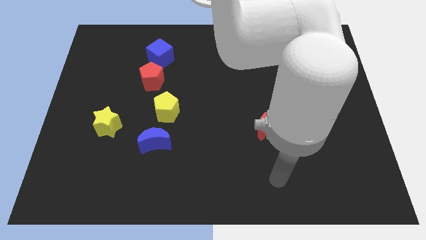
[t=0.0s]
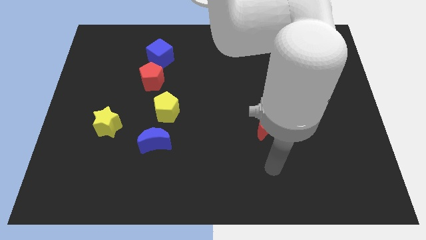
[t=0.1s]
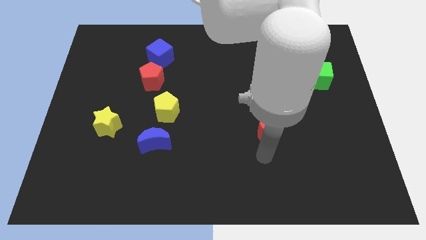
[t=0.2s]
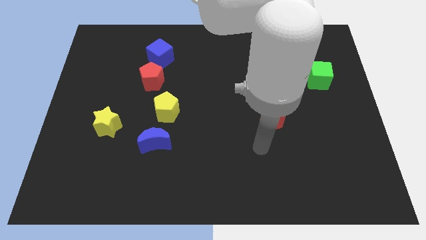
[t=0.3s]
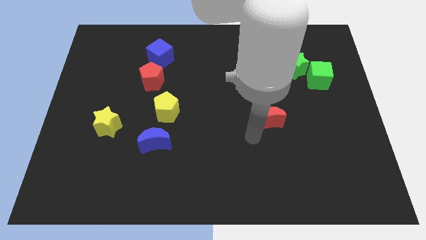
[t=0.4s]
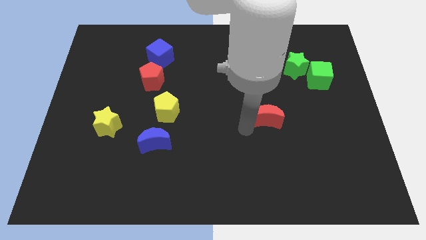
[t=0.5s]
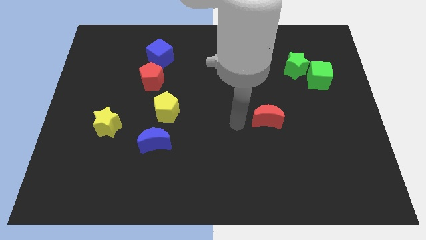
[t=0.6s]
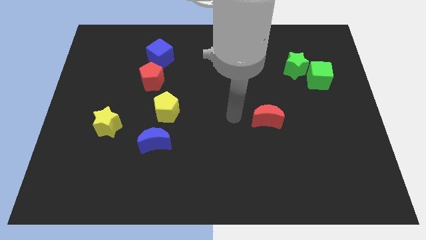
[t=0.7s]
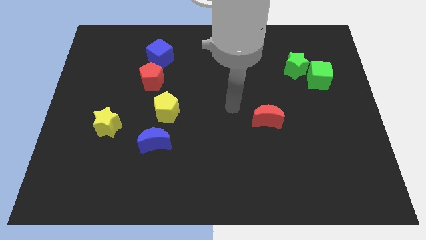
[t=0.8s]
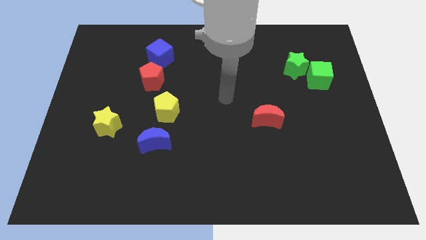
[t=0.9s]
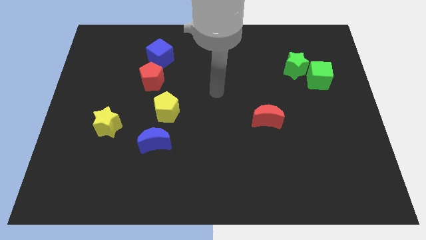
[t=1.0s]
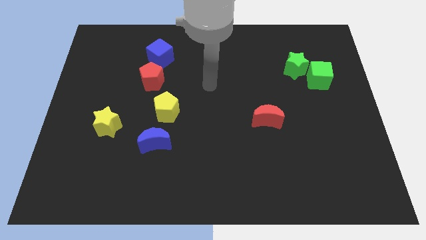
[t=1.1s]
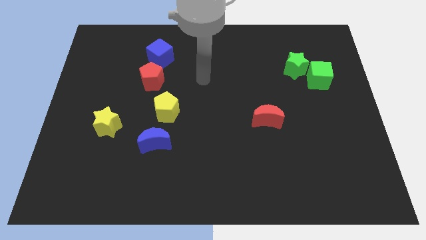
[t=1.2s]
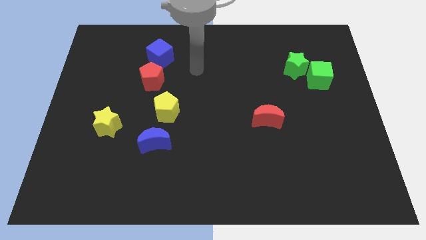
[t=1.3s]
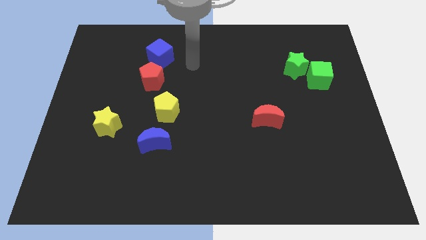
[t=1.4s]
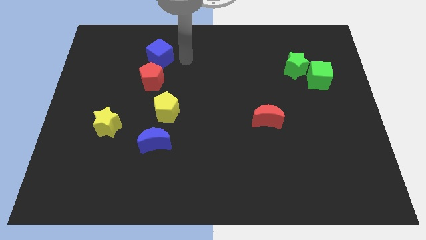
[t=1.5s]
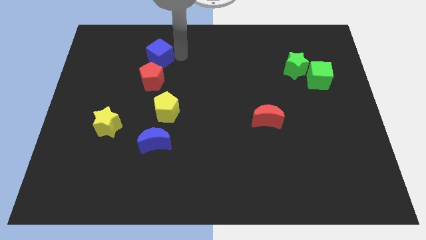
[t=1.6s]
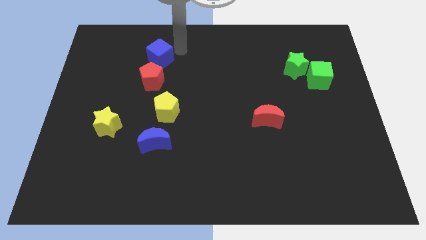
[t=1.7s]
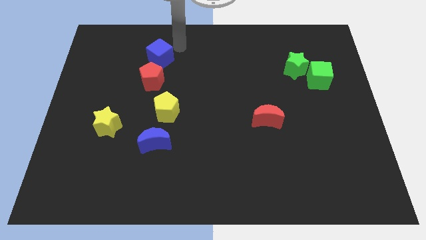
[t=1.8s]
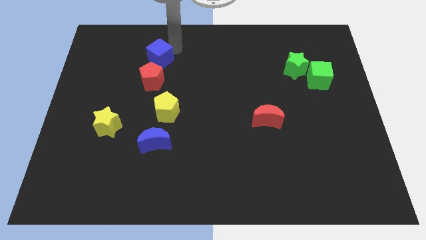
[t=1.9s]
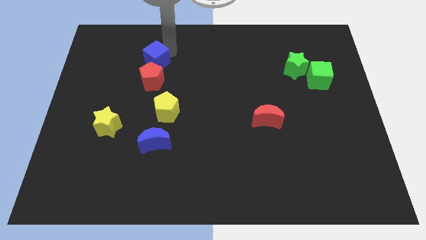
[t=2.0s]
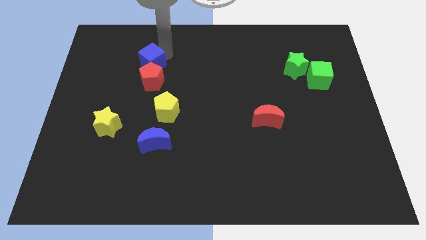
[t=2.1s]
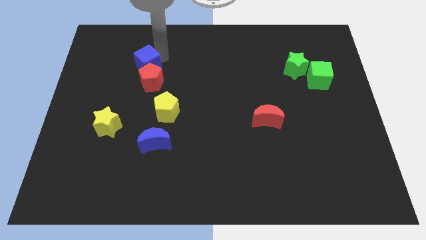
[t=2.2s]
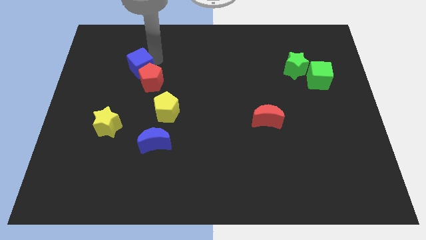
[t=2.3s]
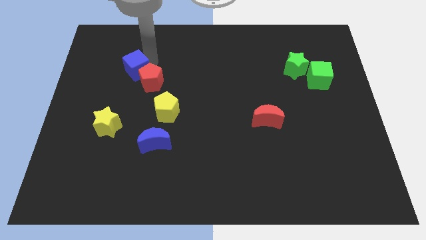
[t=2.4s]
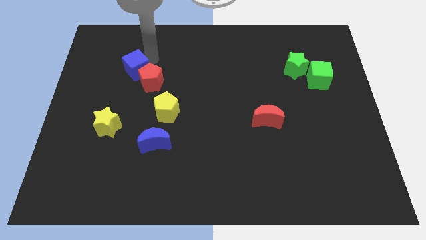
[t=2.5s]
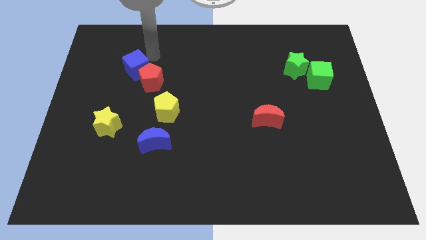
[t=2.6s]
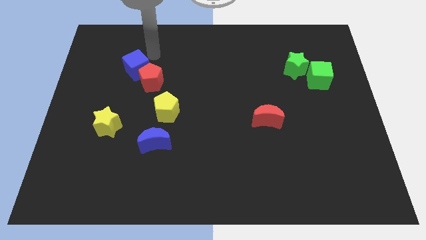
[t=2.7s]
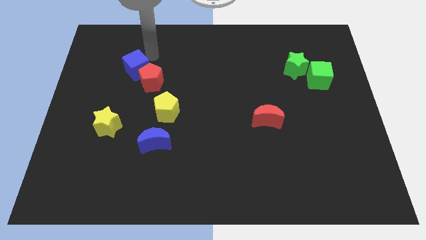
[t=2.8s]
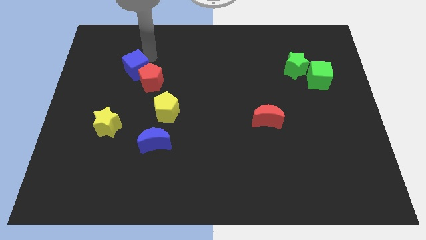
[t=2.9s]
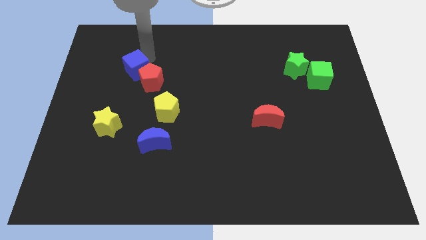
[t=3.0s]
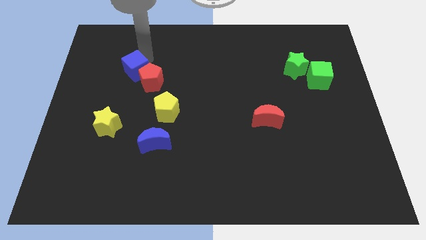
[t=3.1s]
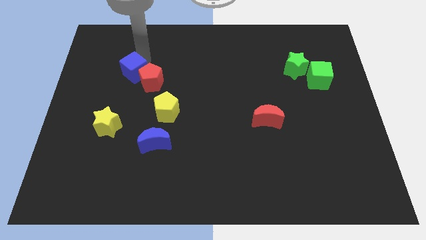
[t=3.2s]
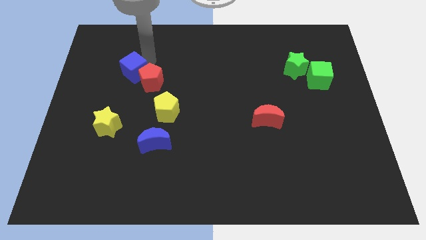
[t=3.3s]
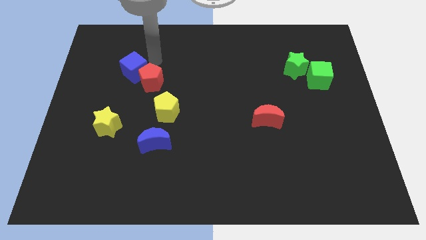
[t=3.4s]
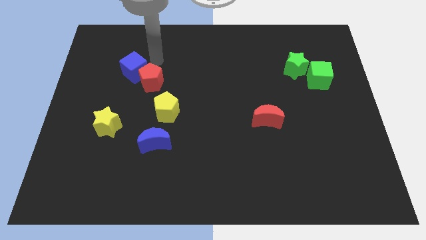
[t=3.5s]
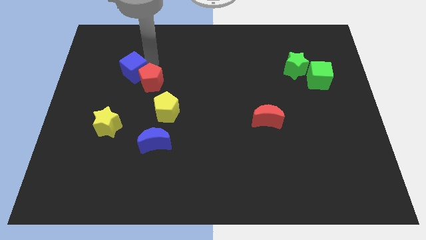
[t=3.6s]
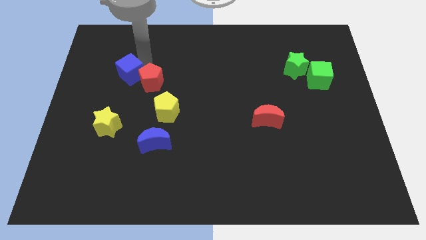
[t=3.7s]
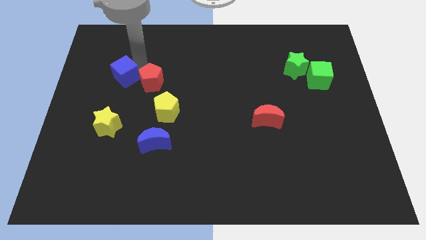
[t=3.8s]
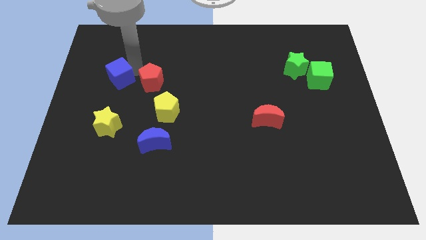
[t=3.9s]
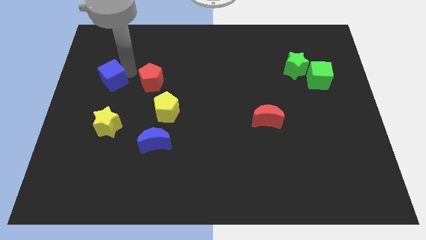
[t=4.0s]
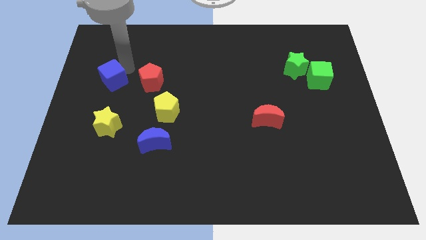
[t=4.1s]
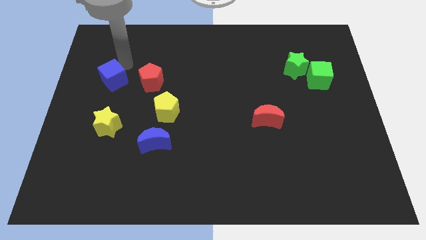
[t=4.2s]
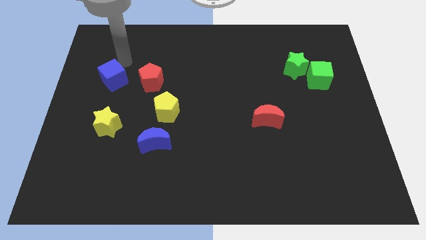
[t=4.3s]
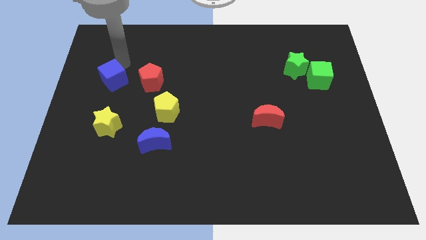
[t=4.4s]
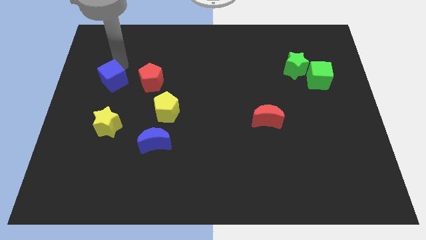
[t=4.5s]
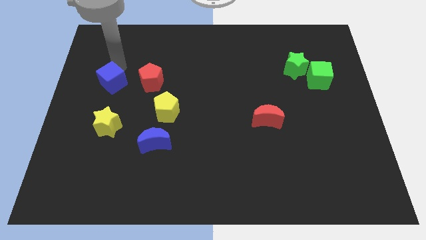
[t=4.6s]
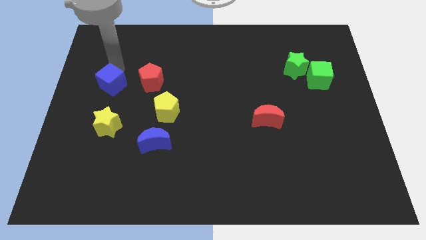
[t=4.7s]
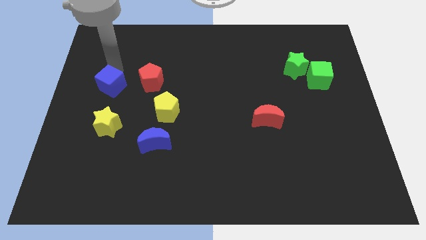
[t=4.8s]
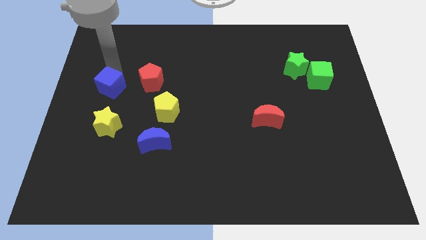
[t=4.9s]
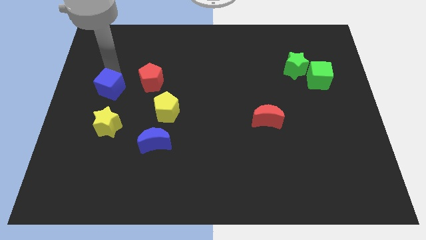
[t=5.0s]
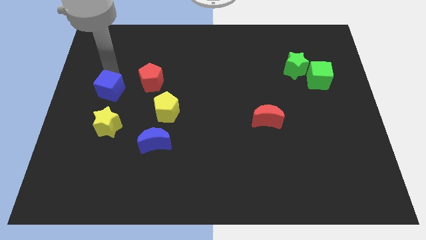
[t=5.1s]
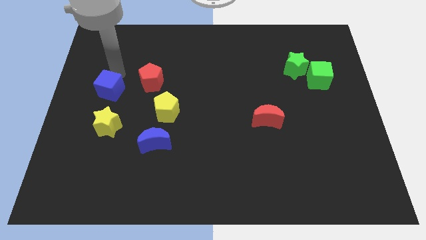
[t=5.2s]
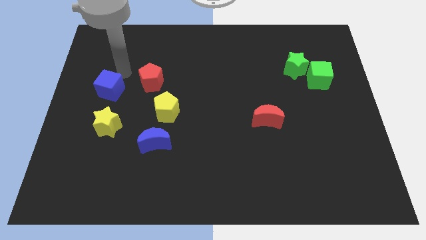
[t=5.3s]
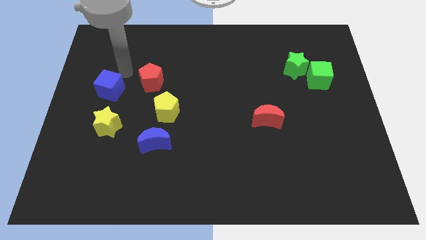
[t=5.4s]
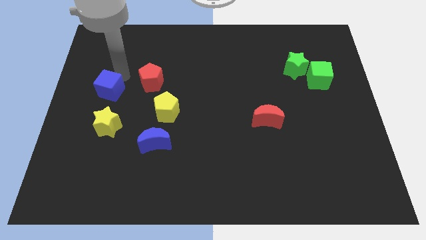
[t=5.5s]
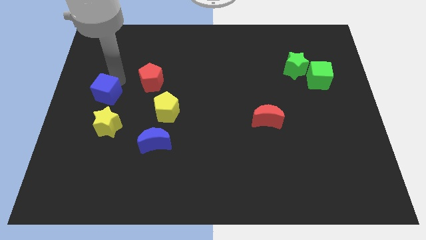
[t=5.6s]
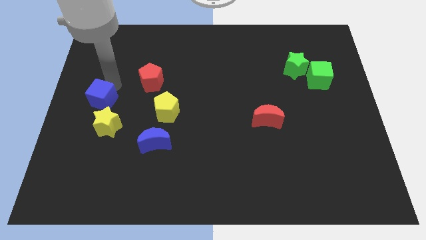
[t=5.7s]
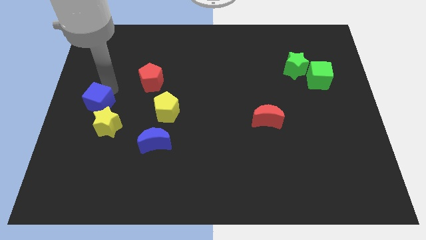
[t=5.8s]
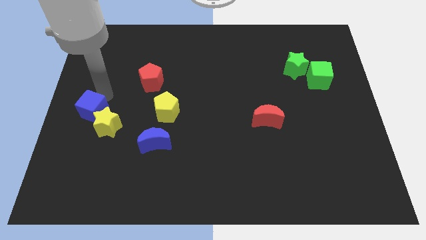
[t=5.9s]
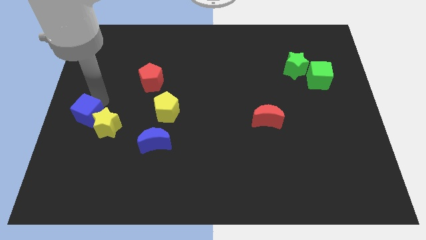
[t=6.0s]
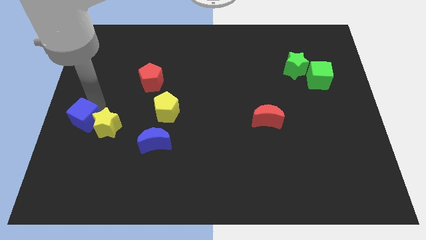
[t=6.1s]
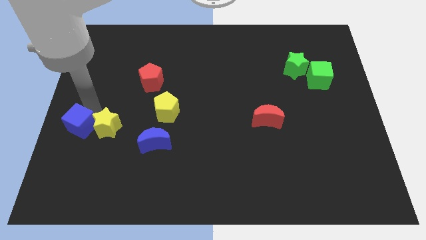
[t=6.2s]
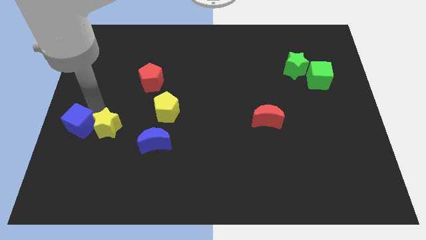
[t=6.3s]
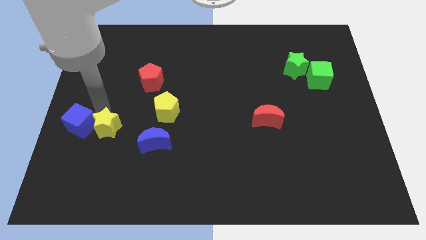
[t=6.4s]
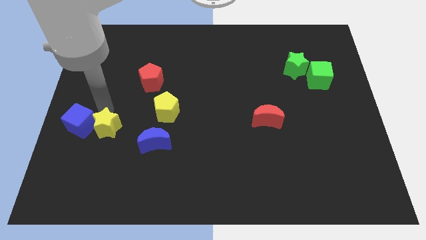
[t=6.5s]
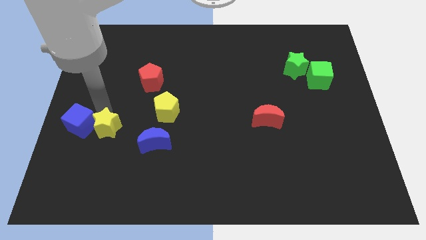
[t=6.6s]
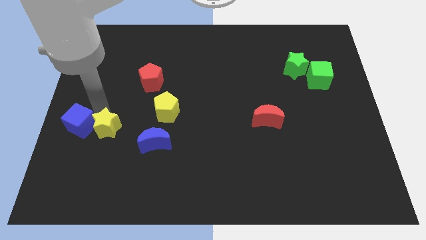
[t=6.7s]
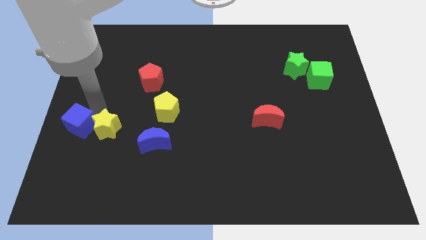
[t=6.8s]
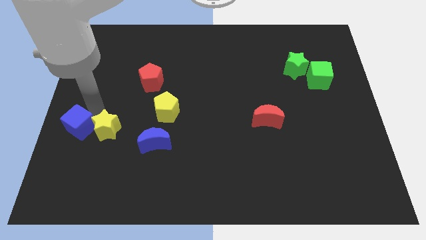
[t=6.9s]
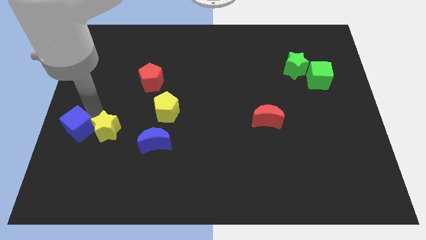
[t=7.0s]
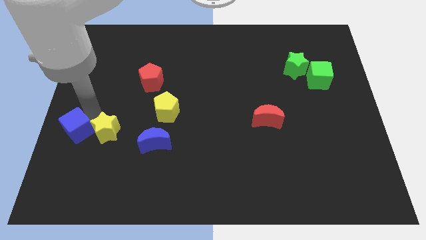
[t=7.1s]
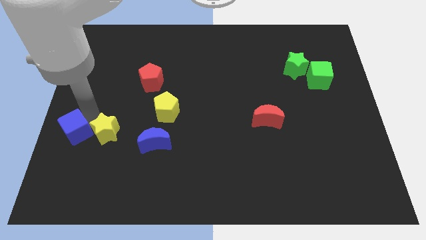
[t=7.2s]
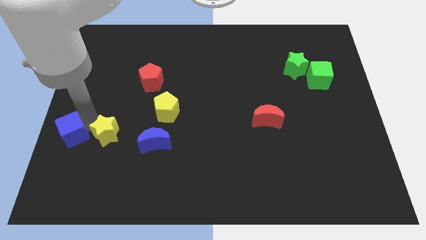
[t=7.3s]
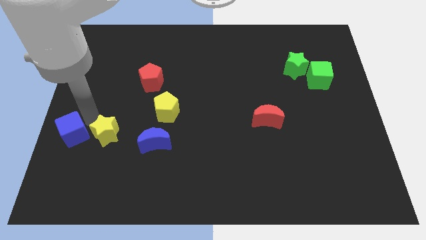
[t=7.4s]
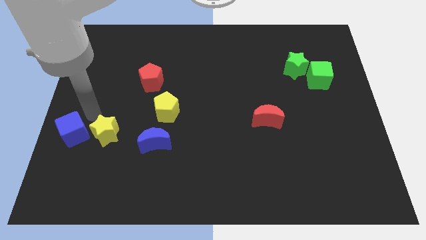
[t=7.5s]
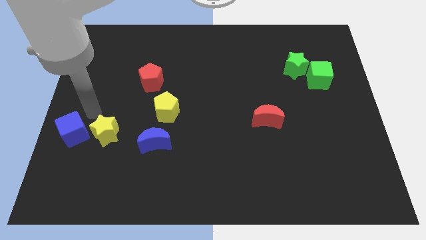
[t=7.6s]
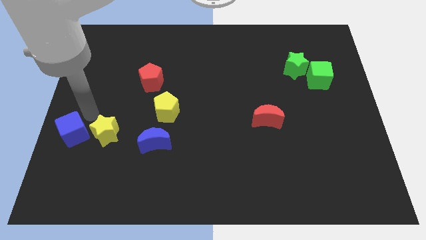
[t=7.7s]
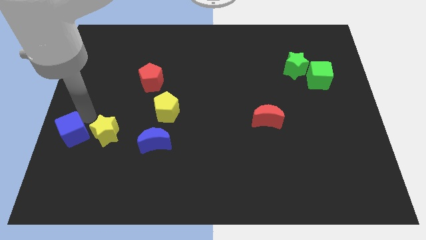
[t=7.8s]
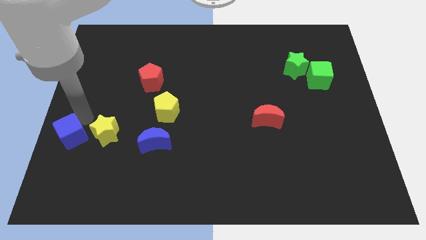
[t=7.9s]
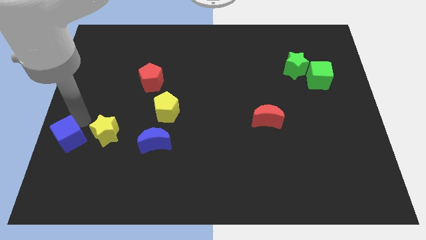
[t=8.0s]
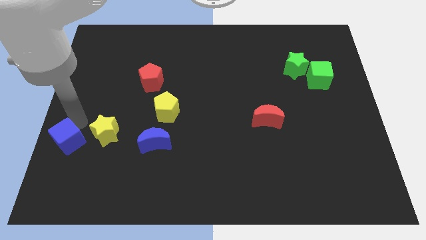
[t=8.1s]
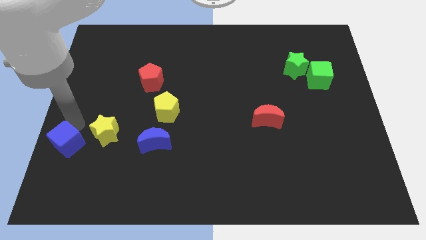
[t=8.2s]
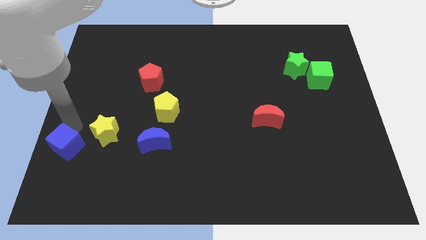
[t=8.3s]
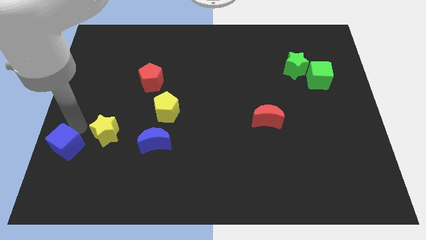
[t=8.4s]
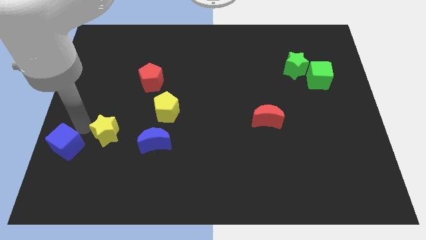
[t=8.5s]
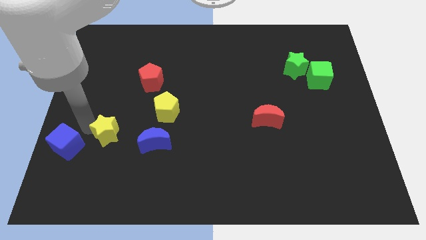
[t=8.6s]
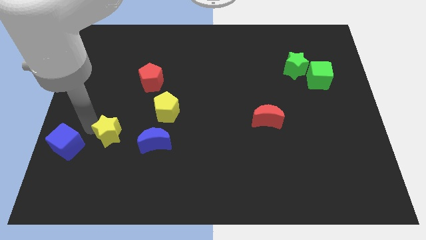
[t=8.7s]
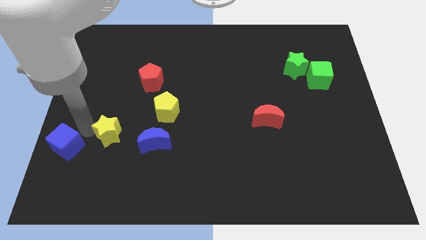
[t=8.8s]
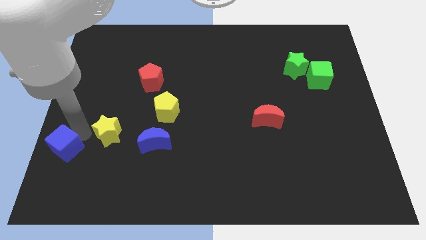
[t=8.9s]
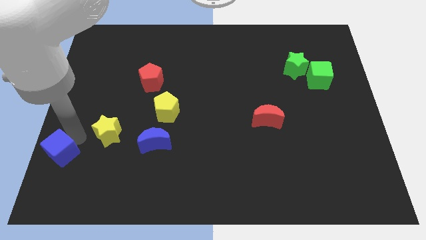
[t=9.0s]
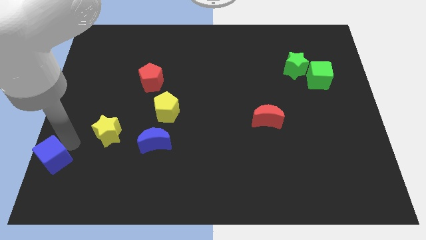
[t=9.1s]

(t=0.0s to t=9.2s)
put the blue cube to the bottom left of the board
